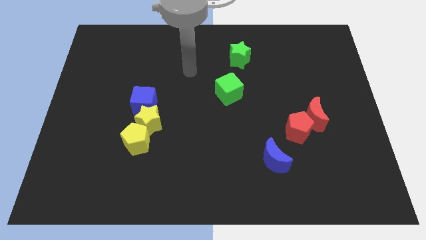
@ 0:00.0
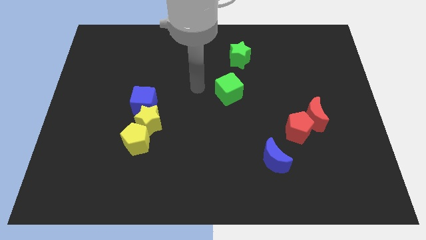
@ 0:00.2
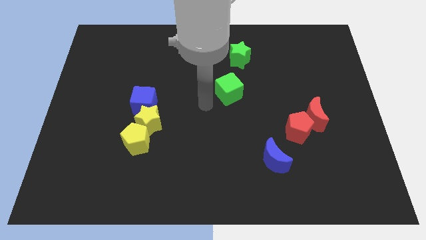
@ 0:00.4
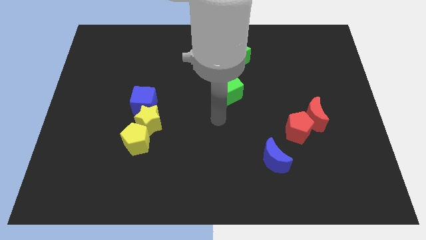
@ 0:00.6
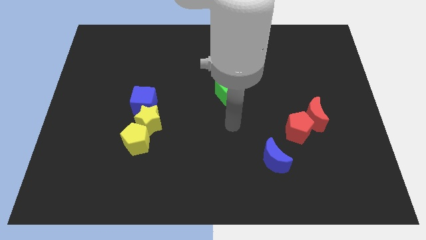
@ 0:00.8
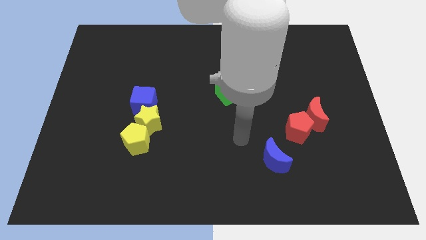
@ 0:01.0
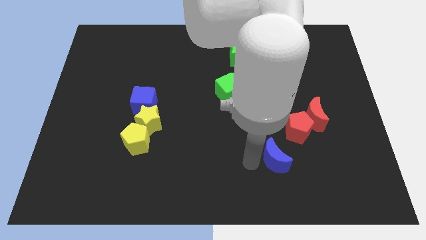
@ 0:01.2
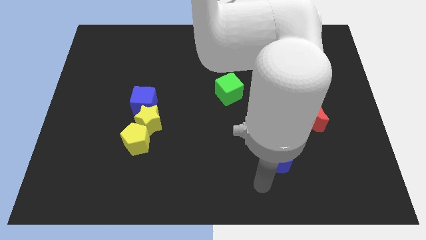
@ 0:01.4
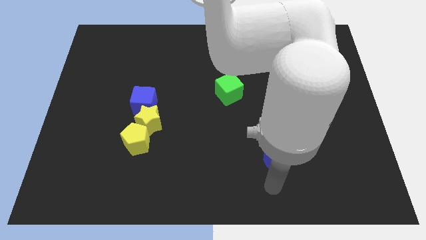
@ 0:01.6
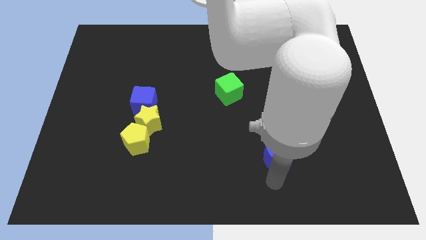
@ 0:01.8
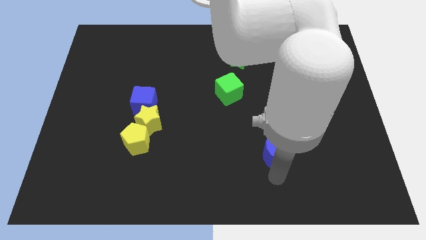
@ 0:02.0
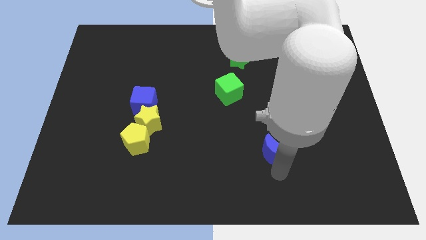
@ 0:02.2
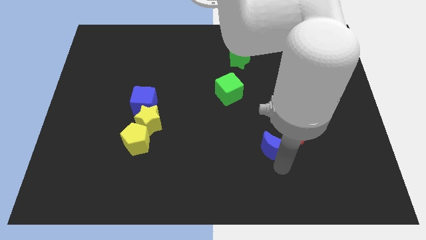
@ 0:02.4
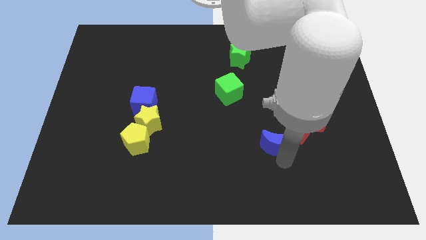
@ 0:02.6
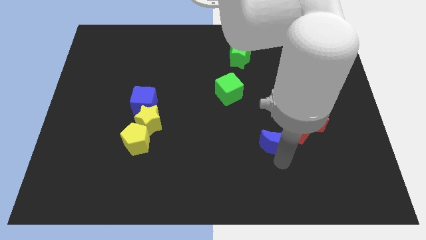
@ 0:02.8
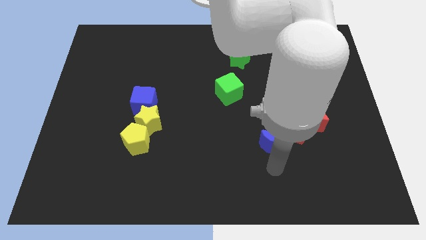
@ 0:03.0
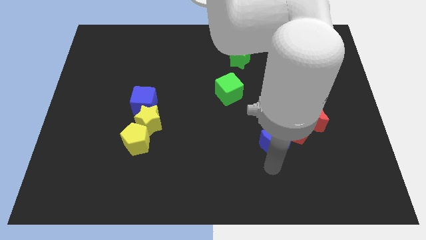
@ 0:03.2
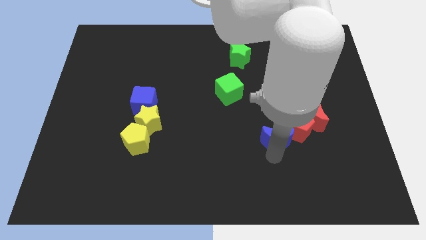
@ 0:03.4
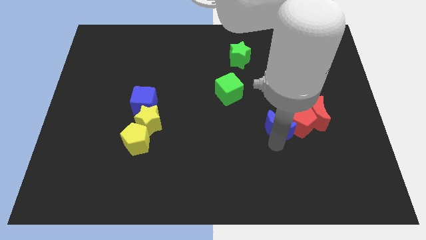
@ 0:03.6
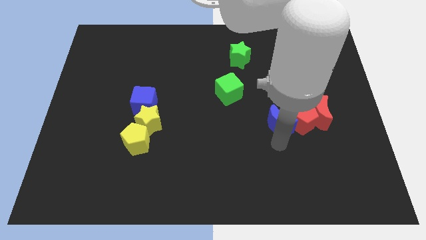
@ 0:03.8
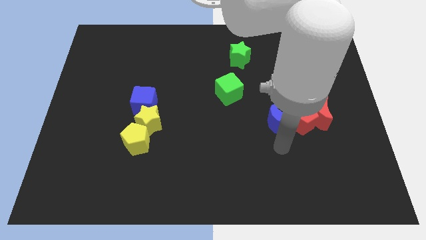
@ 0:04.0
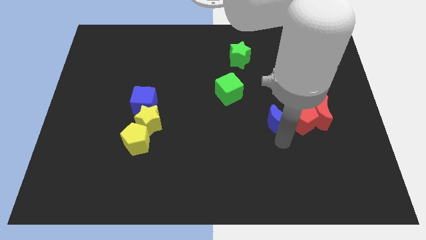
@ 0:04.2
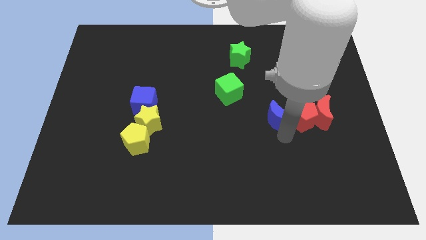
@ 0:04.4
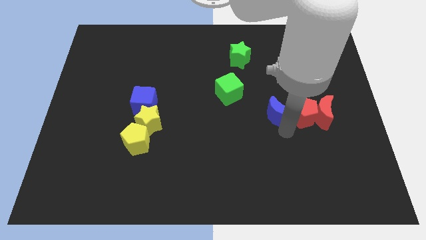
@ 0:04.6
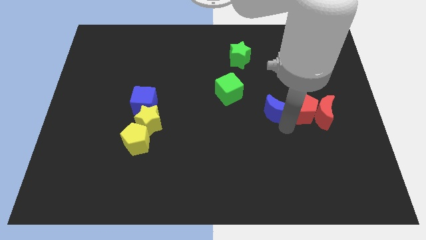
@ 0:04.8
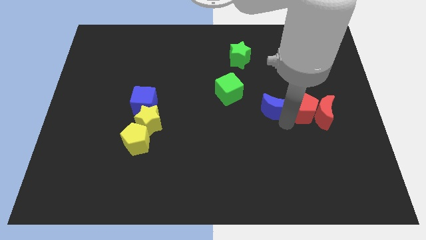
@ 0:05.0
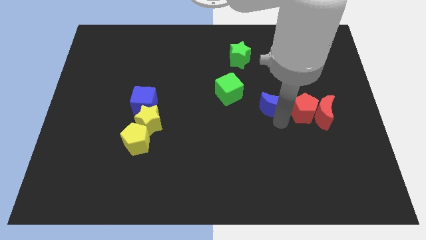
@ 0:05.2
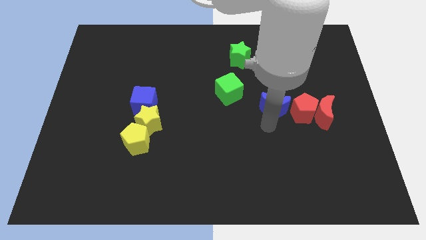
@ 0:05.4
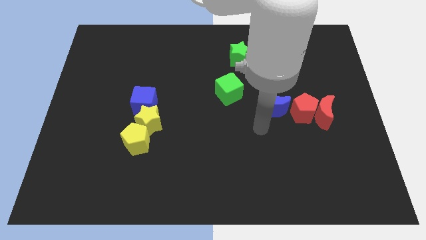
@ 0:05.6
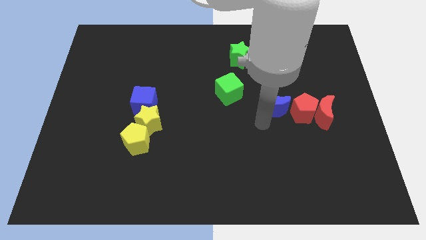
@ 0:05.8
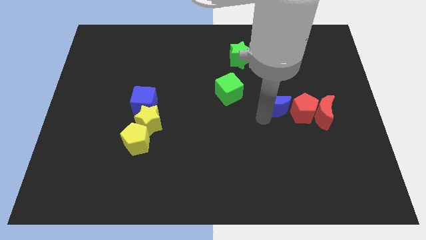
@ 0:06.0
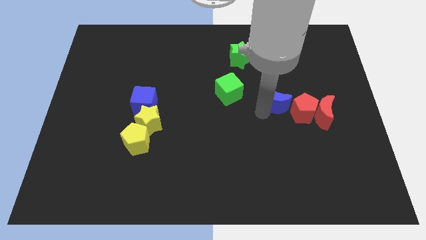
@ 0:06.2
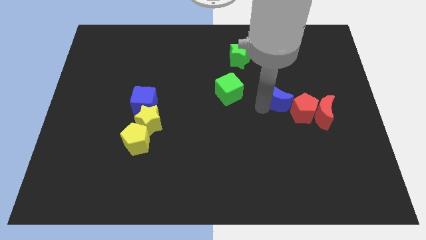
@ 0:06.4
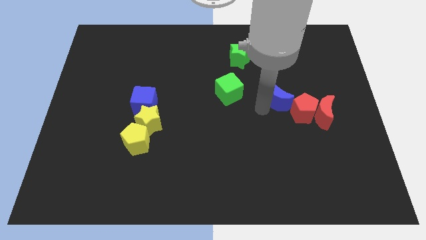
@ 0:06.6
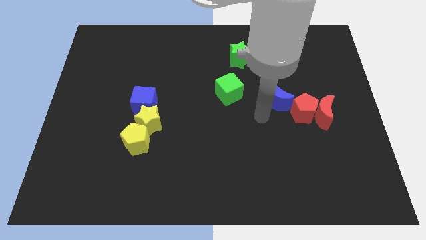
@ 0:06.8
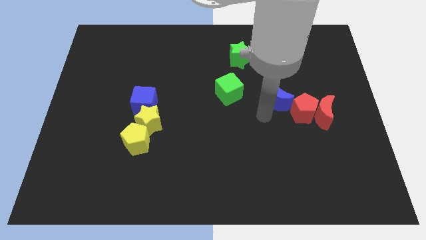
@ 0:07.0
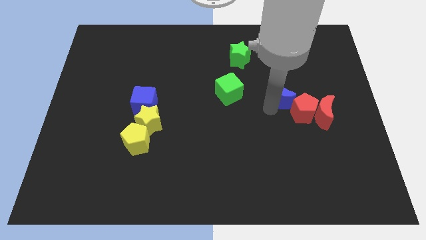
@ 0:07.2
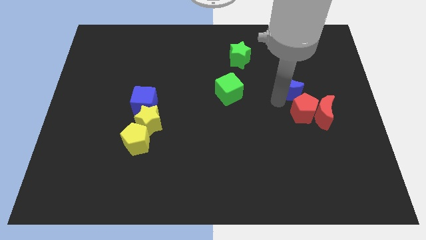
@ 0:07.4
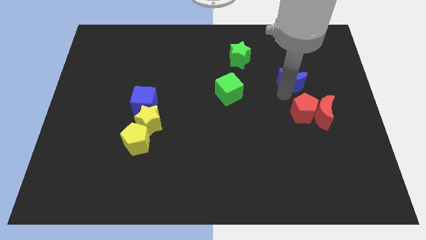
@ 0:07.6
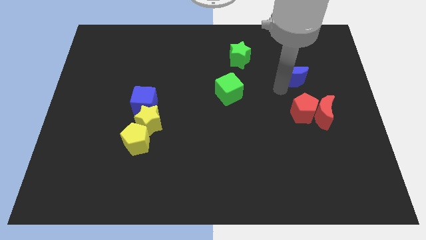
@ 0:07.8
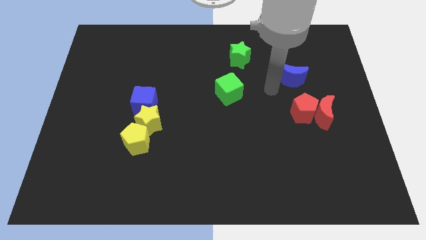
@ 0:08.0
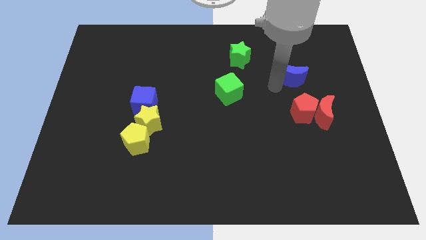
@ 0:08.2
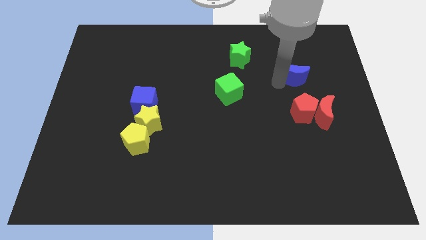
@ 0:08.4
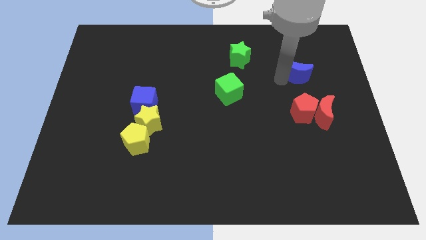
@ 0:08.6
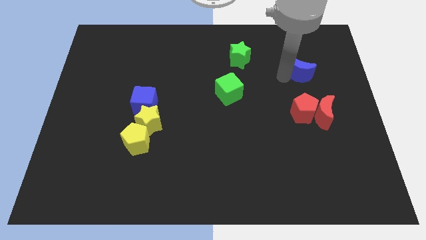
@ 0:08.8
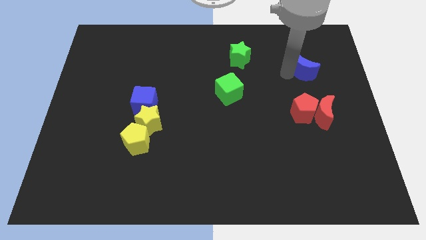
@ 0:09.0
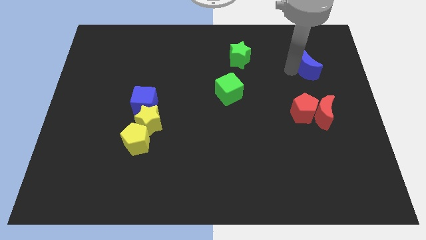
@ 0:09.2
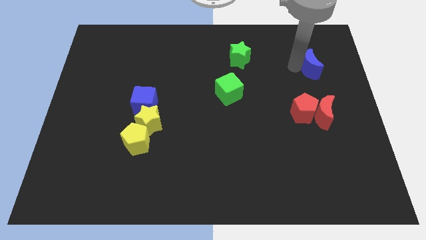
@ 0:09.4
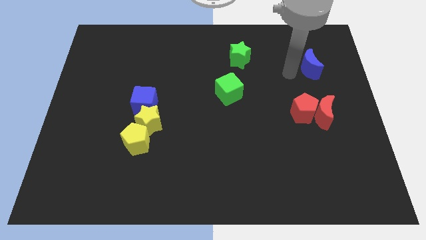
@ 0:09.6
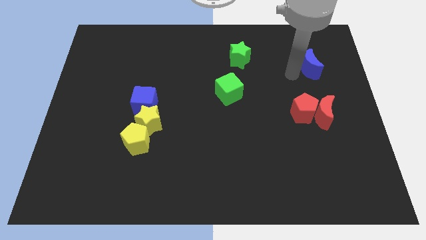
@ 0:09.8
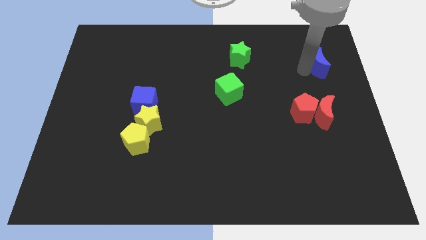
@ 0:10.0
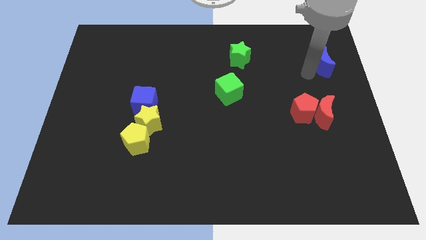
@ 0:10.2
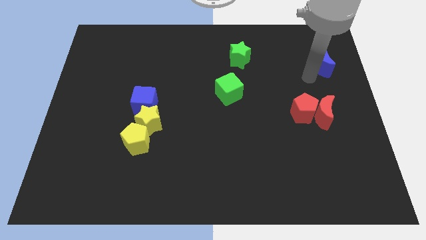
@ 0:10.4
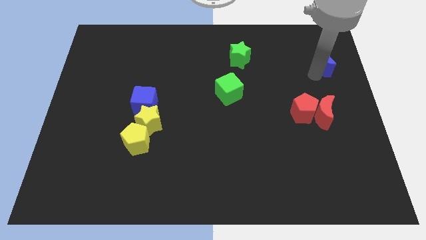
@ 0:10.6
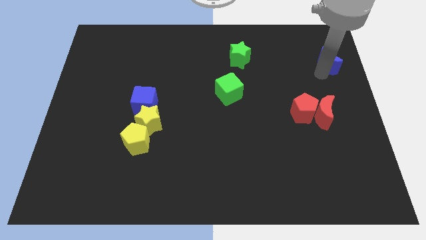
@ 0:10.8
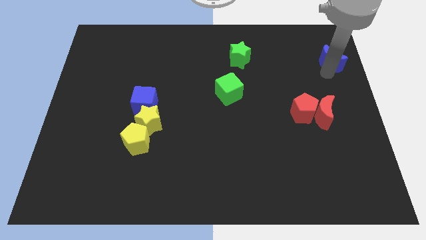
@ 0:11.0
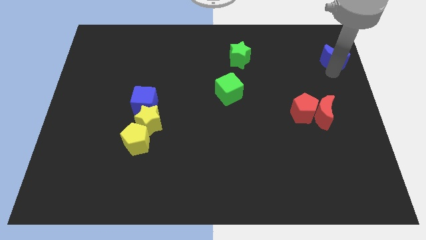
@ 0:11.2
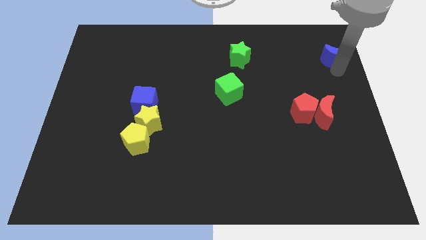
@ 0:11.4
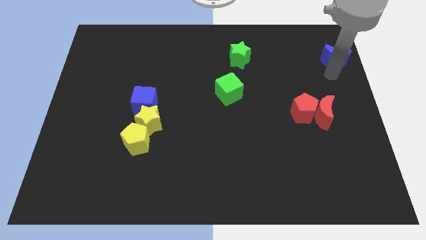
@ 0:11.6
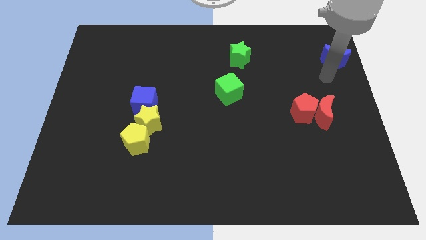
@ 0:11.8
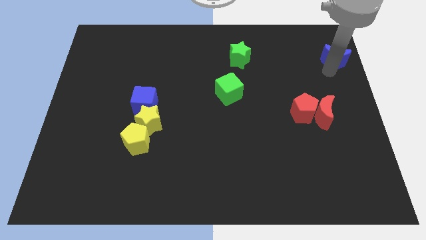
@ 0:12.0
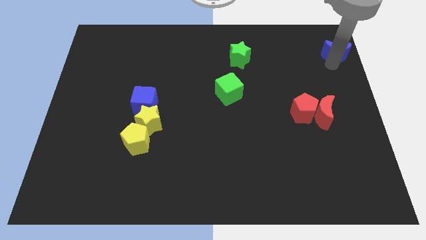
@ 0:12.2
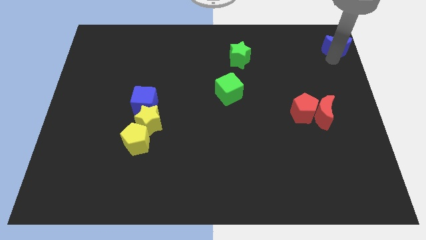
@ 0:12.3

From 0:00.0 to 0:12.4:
push the blue moon to the top right
